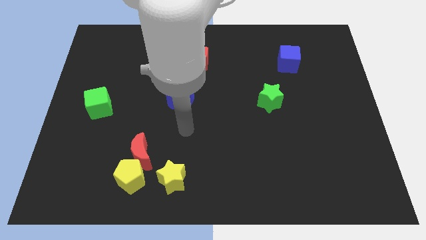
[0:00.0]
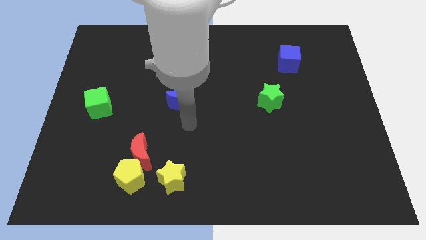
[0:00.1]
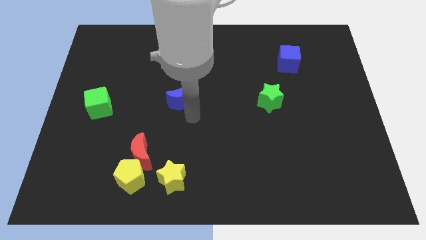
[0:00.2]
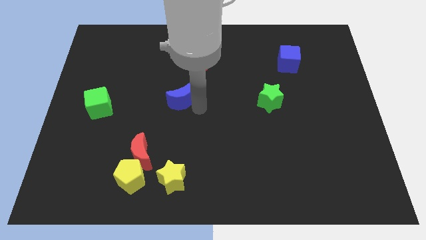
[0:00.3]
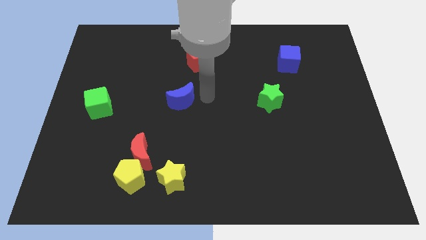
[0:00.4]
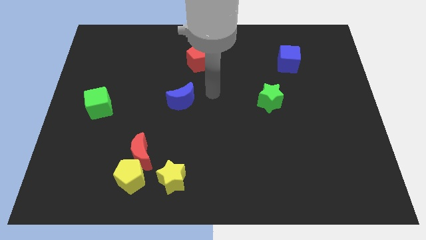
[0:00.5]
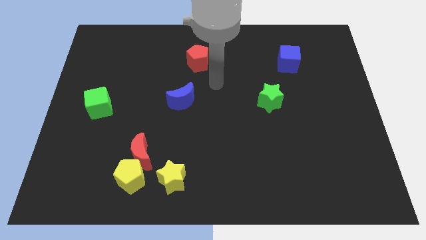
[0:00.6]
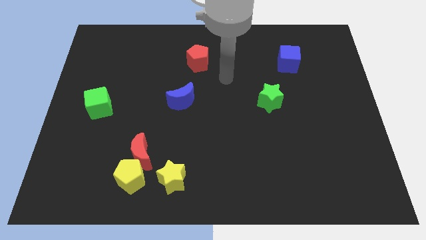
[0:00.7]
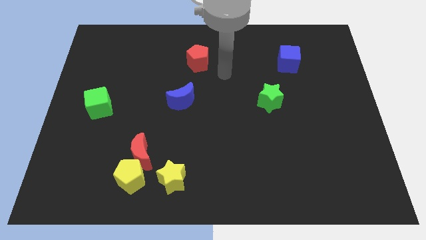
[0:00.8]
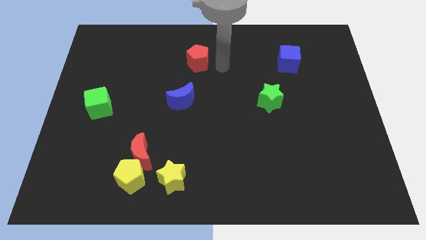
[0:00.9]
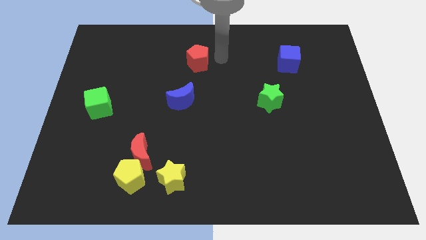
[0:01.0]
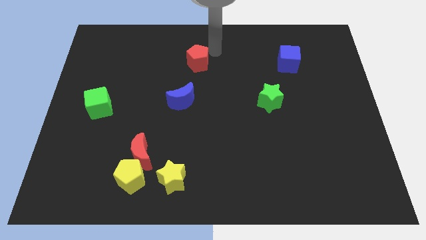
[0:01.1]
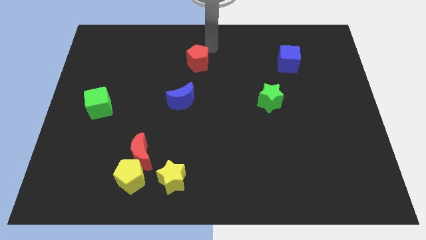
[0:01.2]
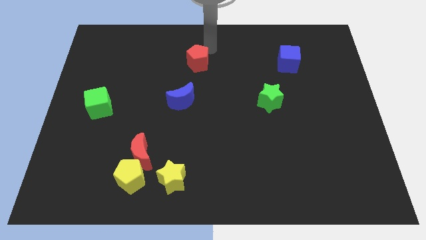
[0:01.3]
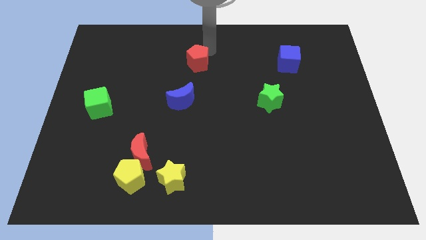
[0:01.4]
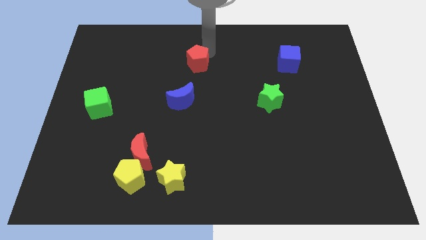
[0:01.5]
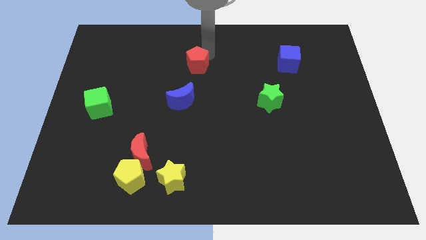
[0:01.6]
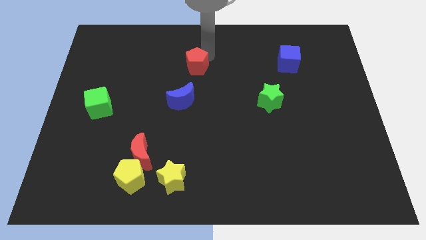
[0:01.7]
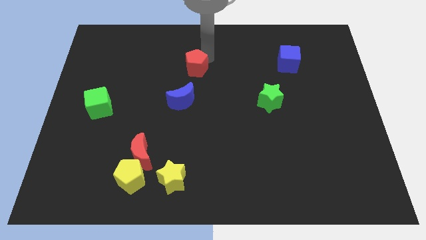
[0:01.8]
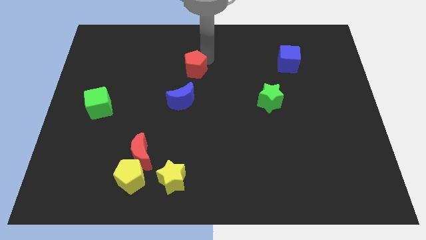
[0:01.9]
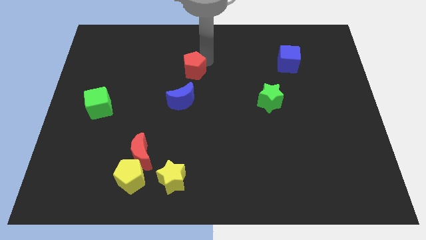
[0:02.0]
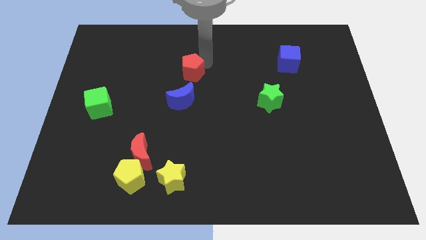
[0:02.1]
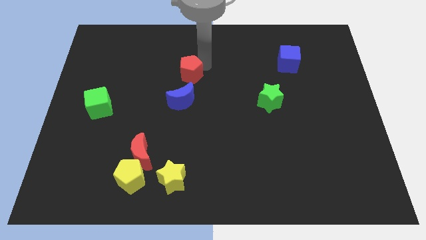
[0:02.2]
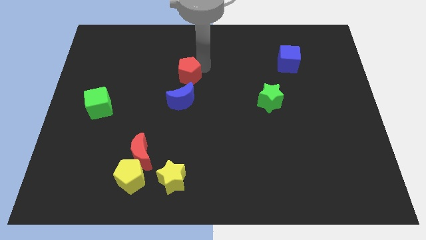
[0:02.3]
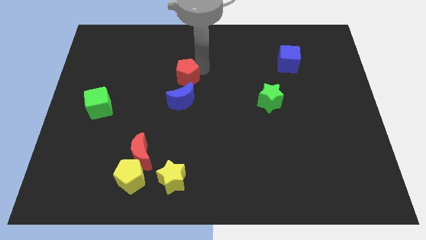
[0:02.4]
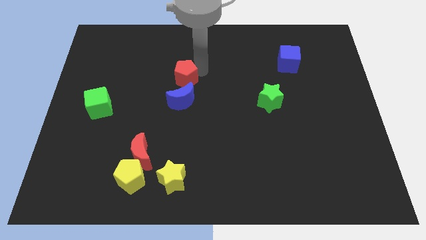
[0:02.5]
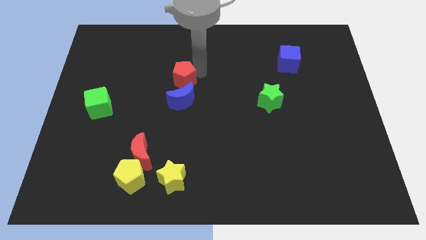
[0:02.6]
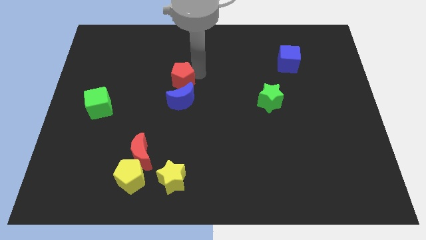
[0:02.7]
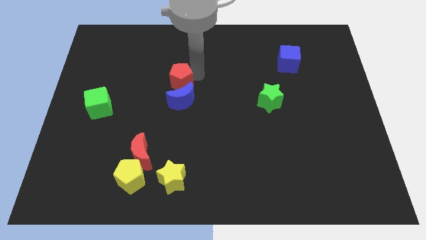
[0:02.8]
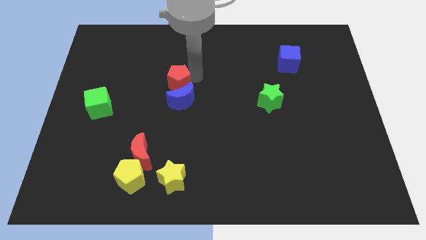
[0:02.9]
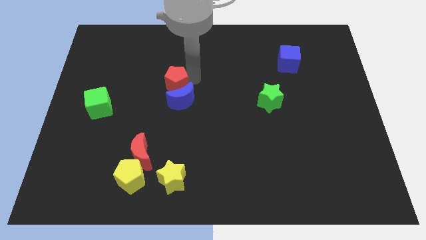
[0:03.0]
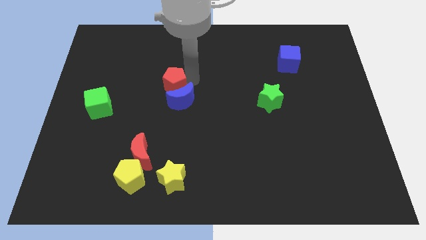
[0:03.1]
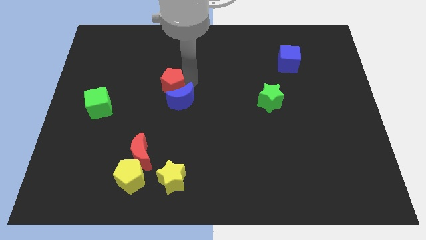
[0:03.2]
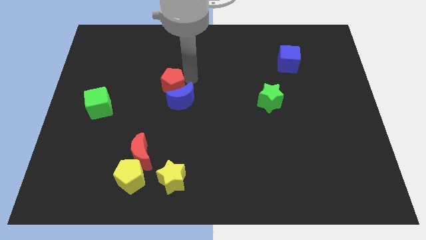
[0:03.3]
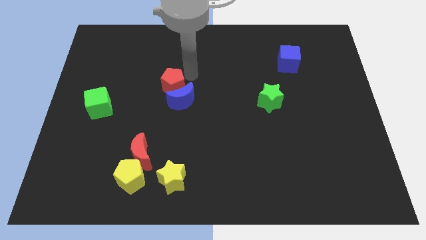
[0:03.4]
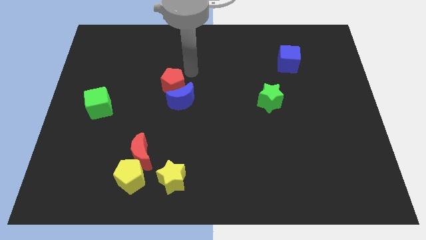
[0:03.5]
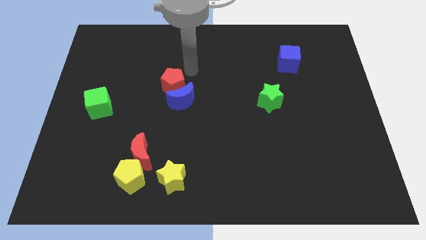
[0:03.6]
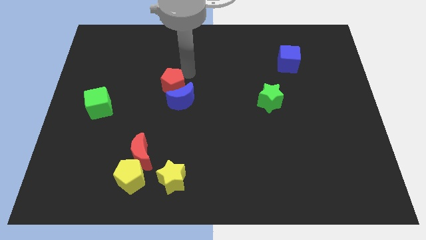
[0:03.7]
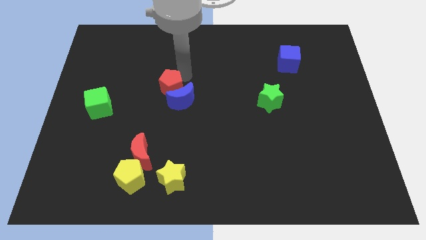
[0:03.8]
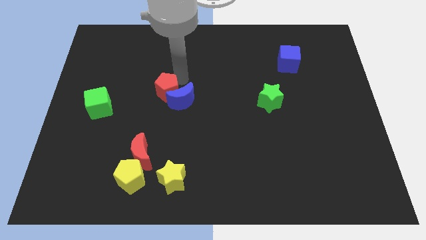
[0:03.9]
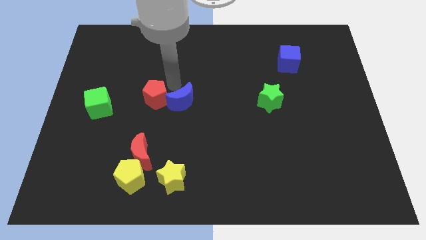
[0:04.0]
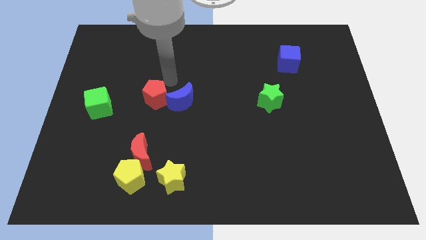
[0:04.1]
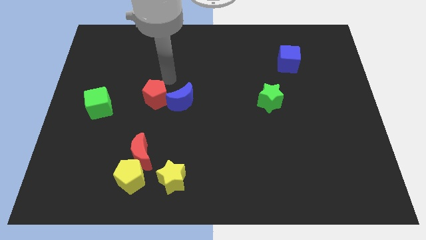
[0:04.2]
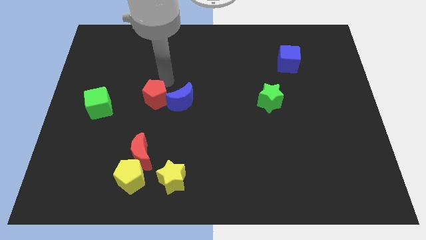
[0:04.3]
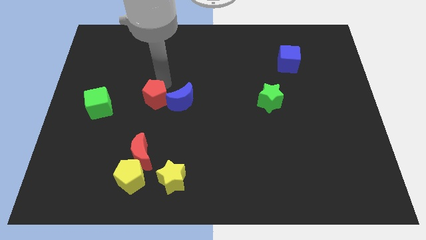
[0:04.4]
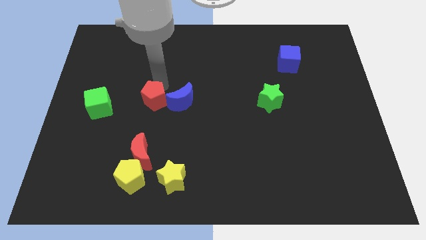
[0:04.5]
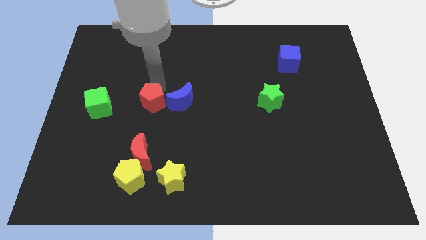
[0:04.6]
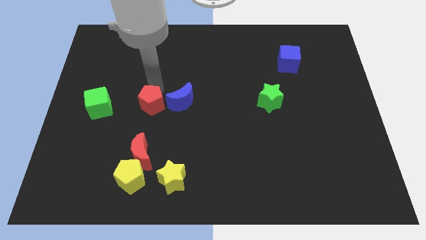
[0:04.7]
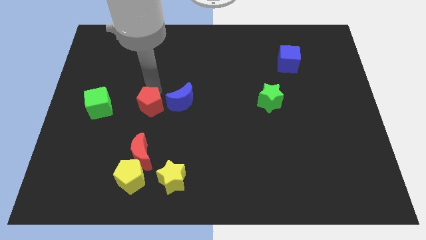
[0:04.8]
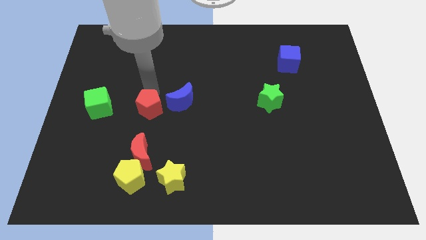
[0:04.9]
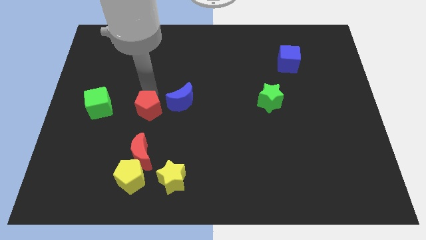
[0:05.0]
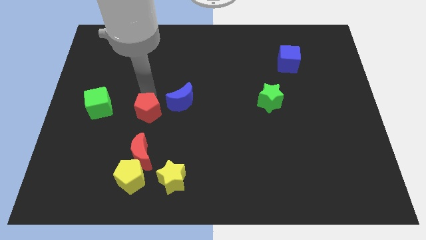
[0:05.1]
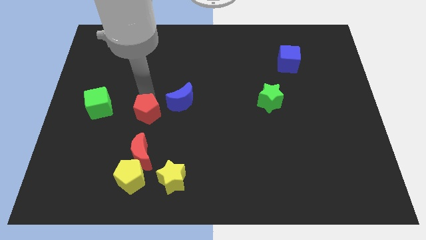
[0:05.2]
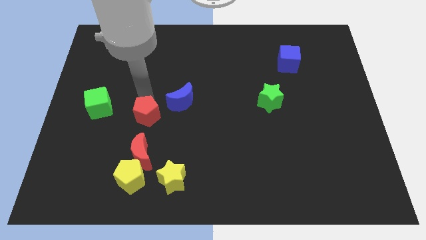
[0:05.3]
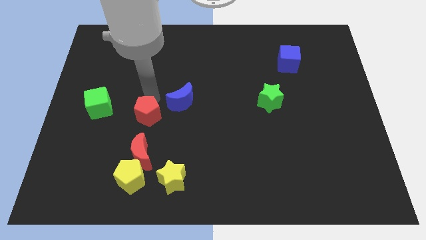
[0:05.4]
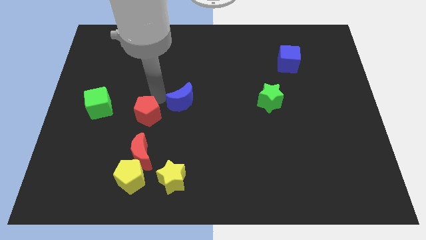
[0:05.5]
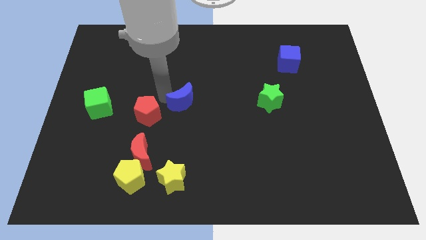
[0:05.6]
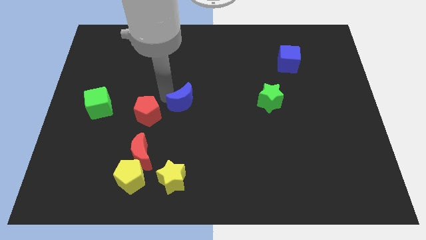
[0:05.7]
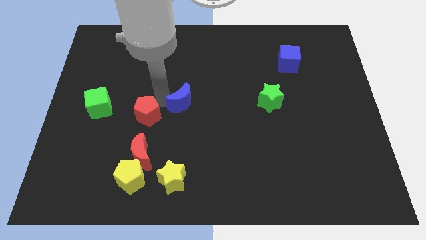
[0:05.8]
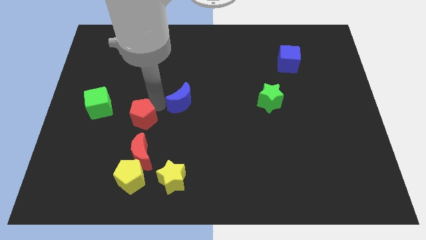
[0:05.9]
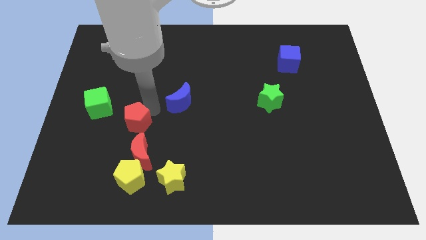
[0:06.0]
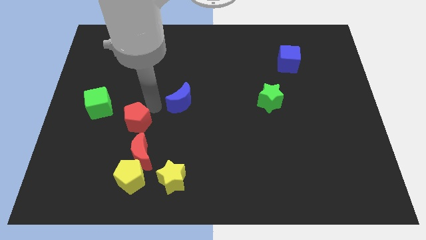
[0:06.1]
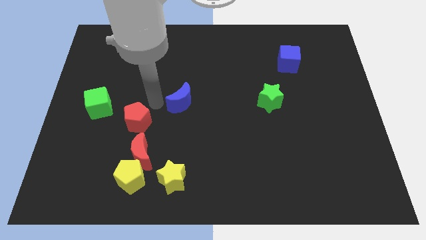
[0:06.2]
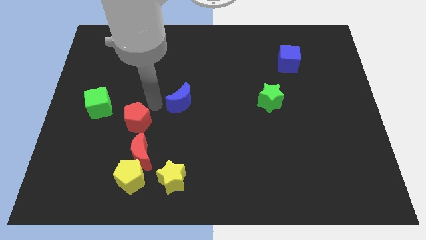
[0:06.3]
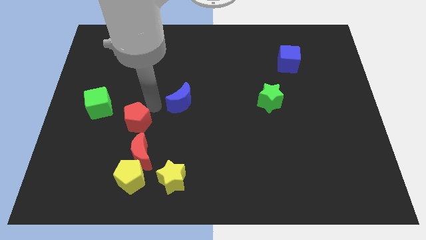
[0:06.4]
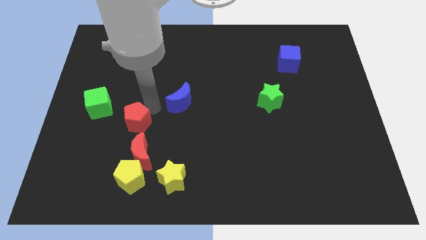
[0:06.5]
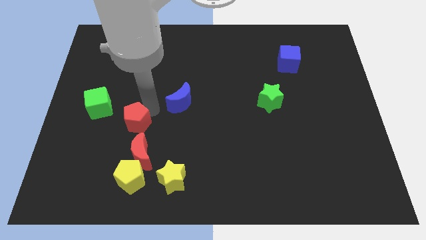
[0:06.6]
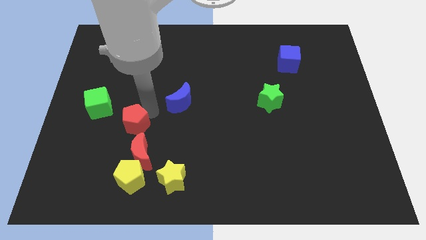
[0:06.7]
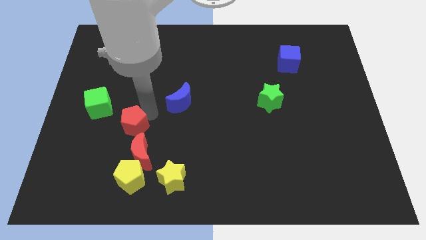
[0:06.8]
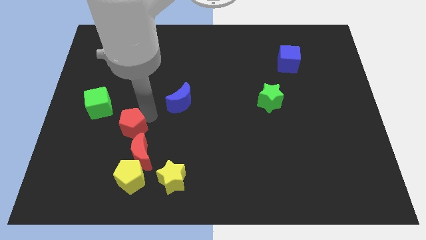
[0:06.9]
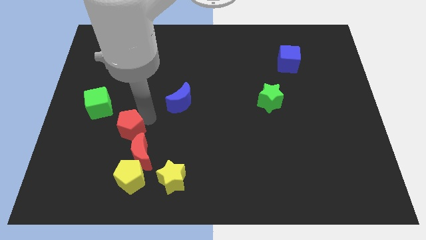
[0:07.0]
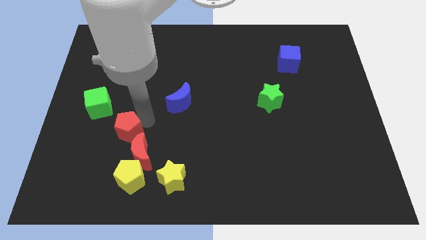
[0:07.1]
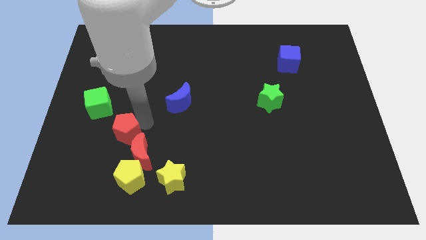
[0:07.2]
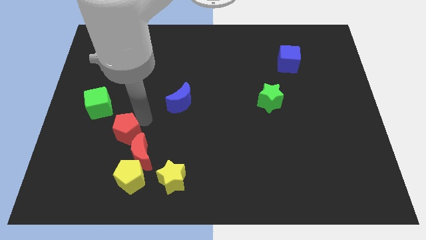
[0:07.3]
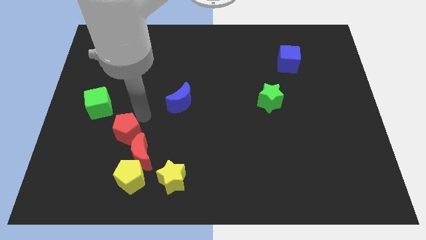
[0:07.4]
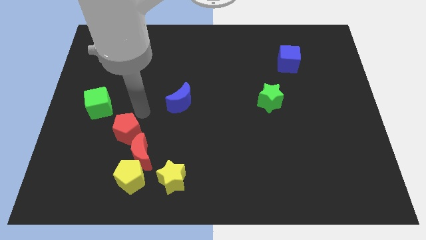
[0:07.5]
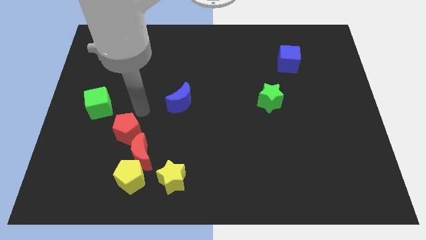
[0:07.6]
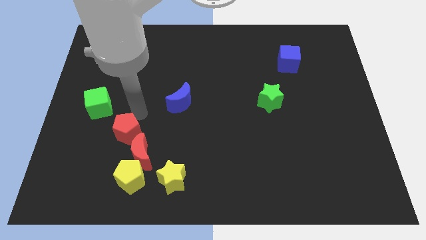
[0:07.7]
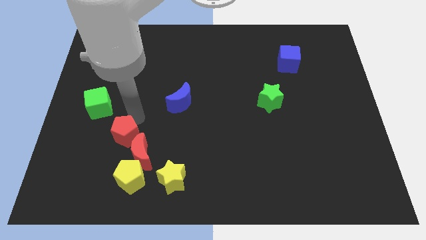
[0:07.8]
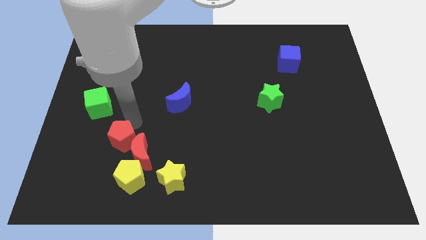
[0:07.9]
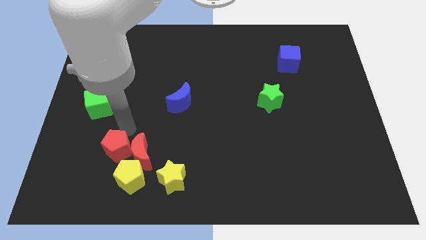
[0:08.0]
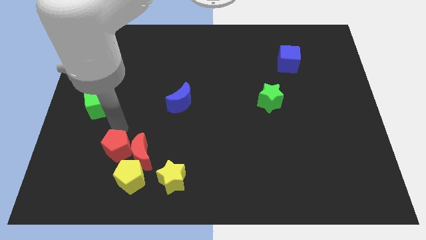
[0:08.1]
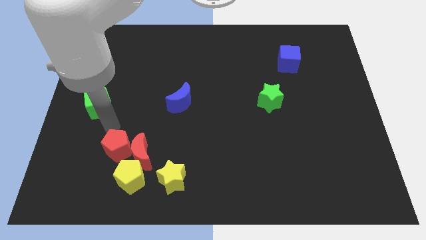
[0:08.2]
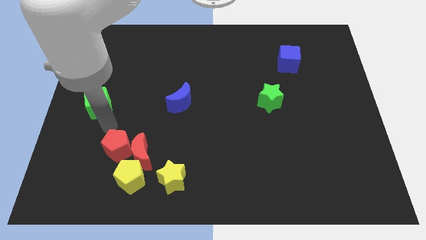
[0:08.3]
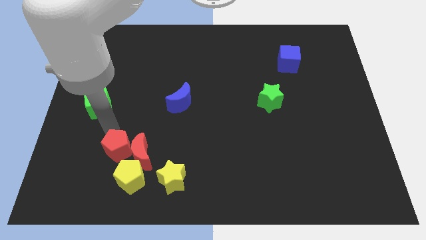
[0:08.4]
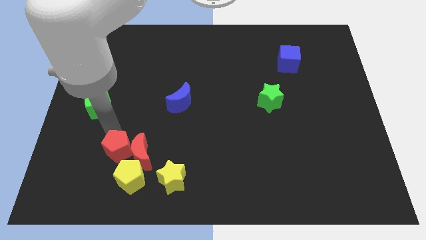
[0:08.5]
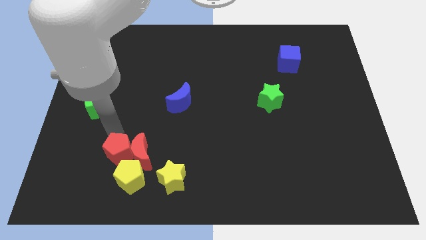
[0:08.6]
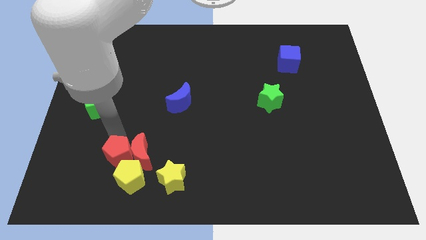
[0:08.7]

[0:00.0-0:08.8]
push the red pentagon to the yellow pentagon
